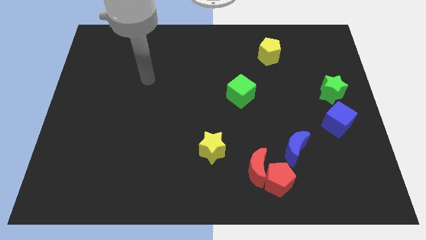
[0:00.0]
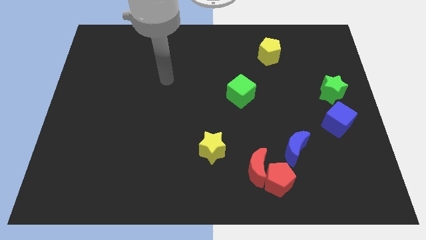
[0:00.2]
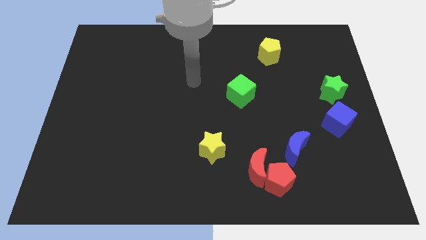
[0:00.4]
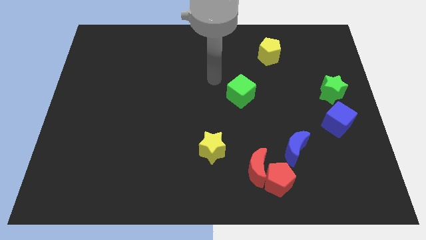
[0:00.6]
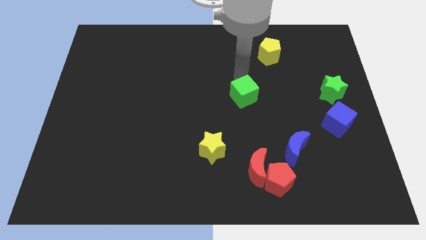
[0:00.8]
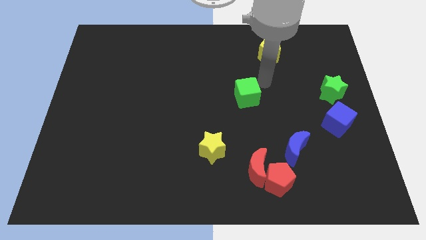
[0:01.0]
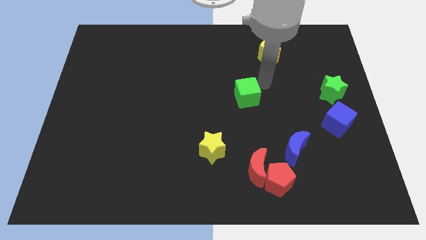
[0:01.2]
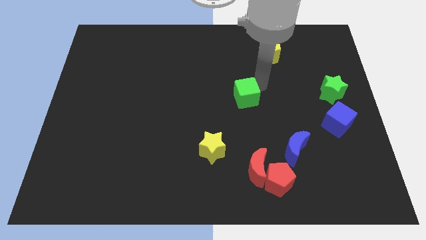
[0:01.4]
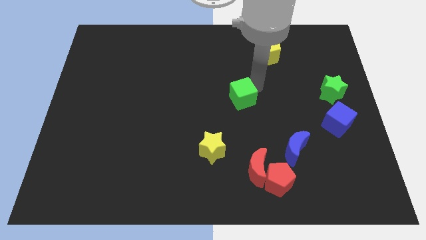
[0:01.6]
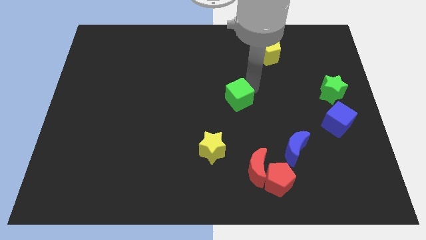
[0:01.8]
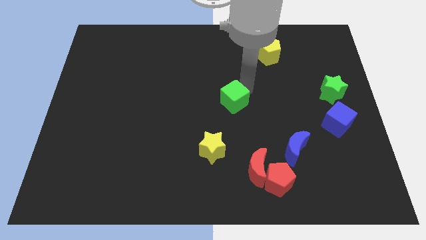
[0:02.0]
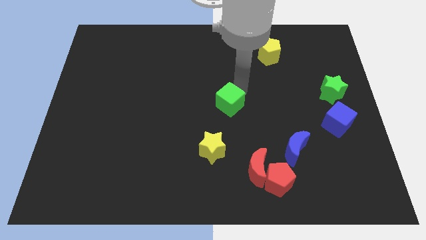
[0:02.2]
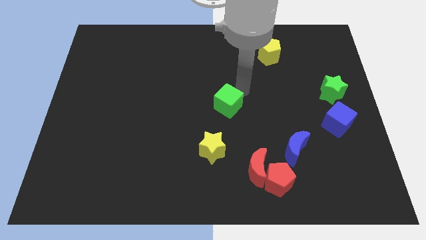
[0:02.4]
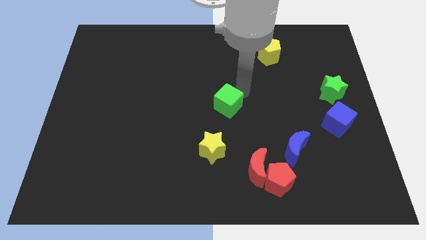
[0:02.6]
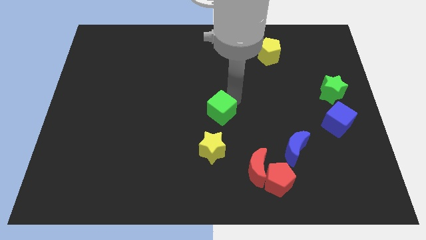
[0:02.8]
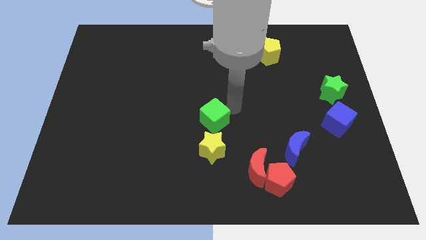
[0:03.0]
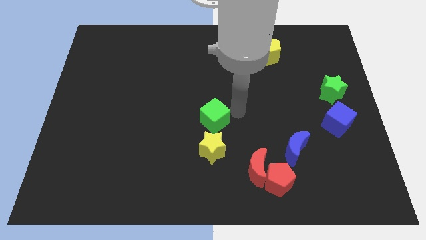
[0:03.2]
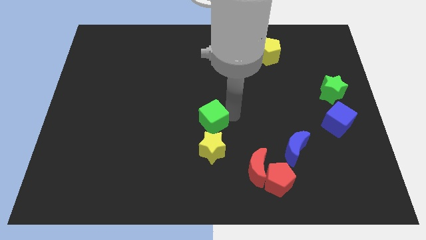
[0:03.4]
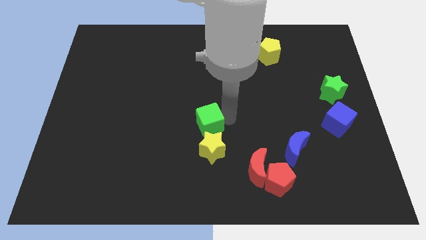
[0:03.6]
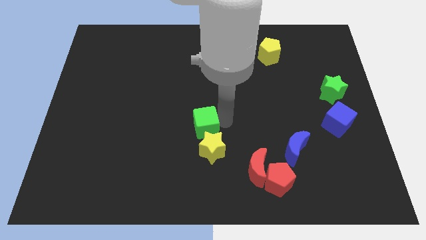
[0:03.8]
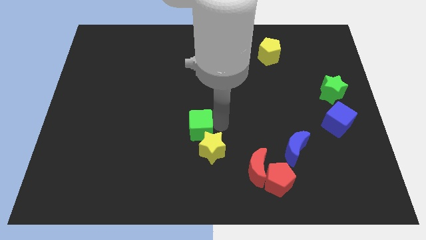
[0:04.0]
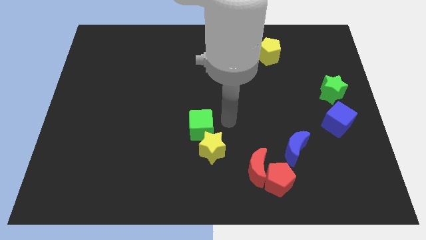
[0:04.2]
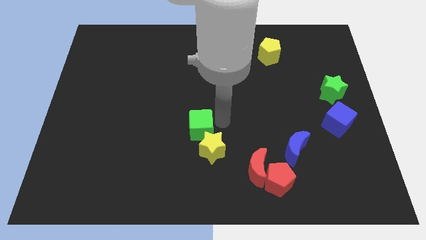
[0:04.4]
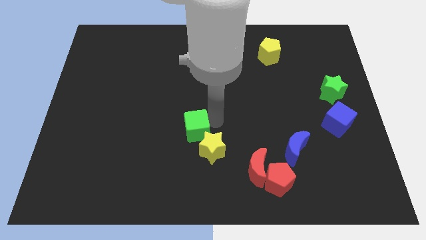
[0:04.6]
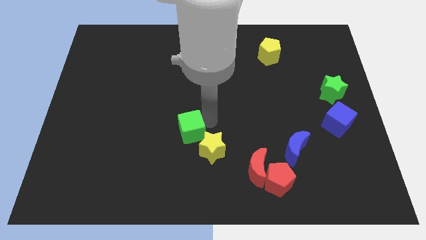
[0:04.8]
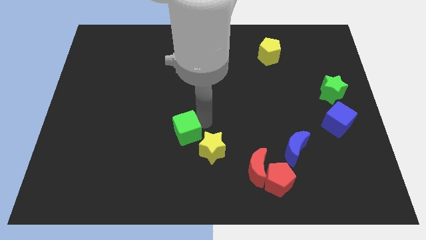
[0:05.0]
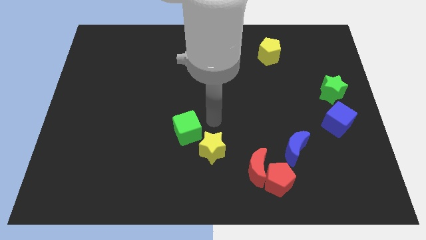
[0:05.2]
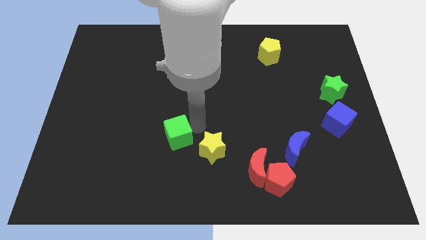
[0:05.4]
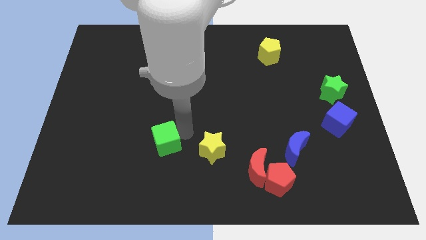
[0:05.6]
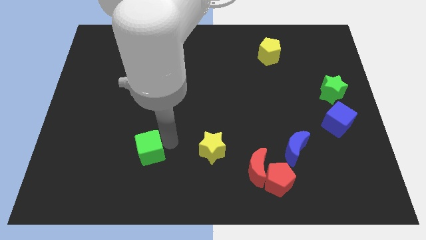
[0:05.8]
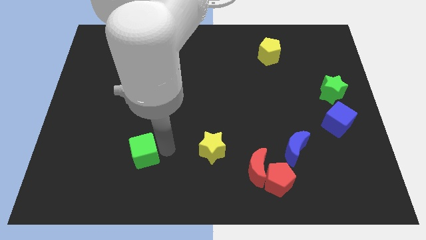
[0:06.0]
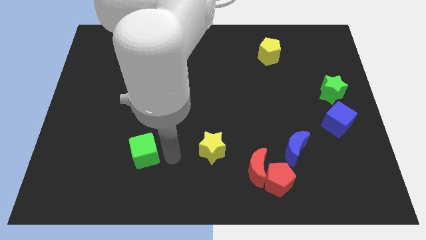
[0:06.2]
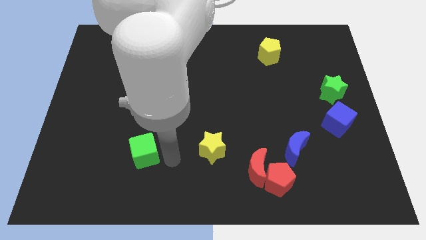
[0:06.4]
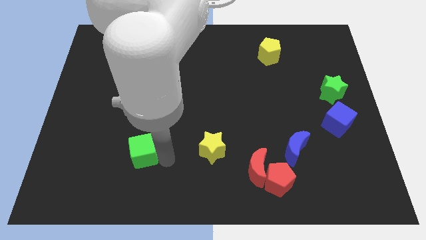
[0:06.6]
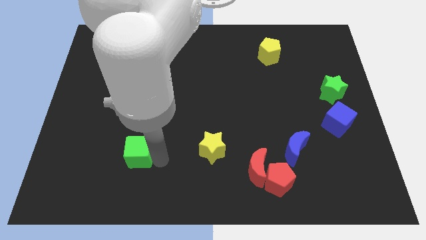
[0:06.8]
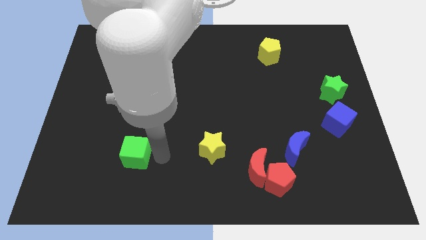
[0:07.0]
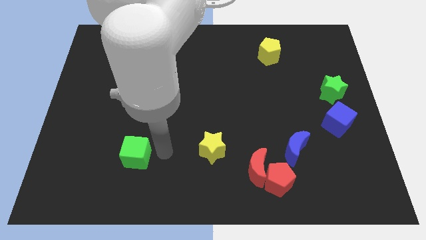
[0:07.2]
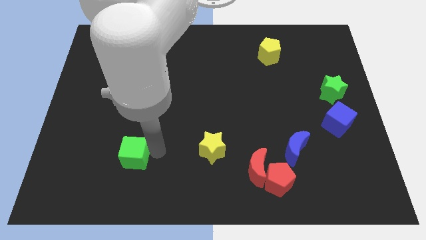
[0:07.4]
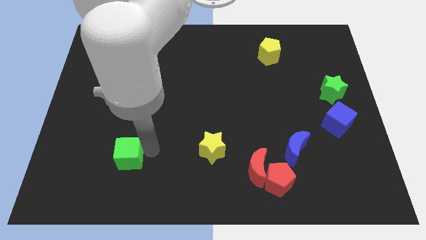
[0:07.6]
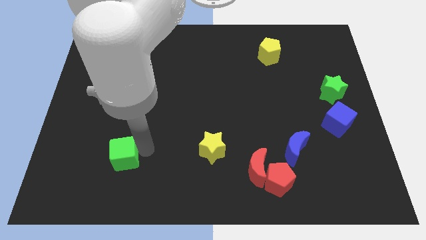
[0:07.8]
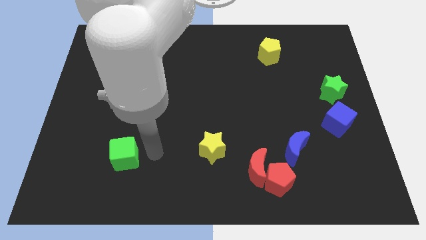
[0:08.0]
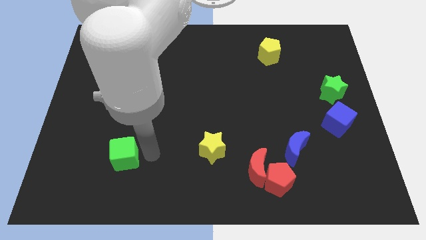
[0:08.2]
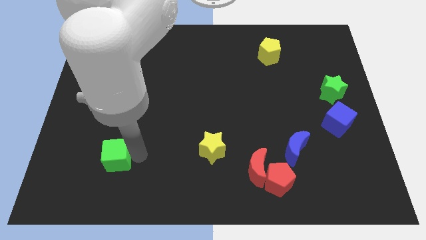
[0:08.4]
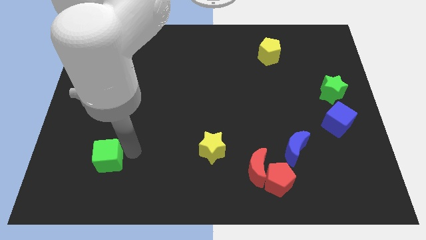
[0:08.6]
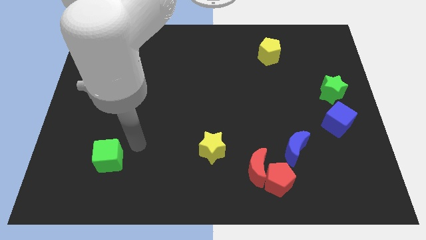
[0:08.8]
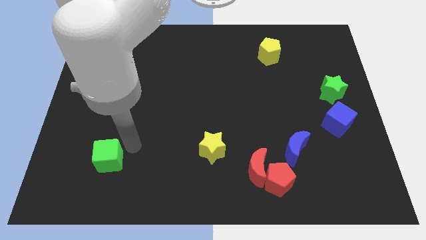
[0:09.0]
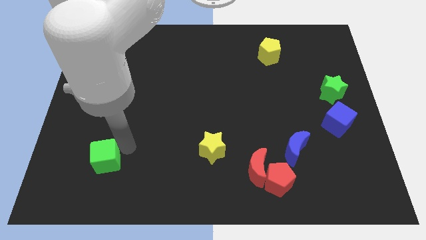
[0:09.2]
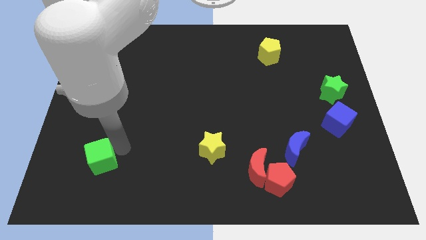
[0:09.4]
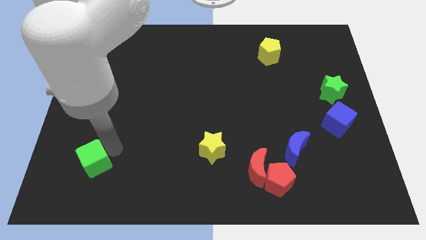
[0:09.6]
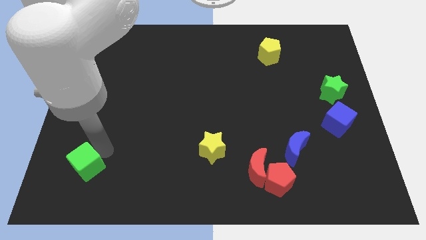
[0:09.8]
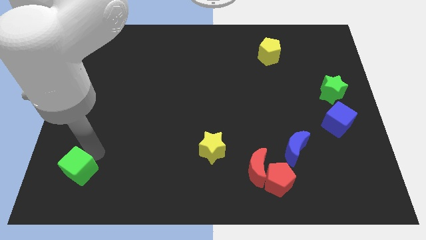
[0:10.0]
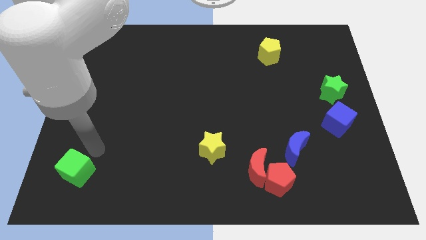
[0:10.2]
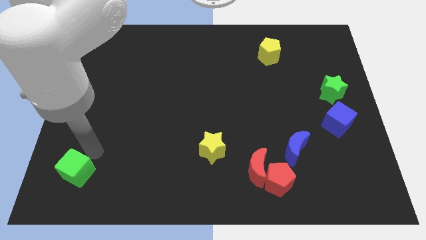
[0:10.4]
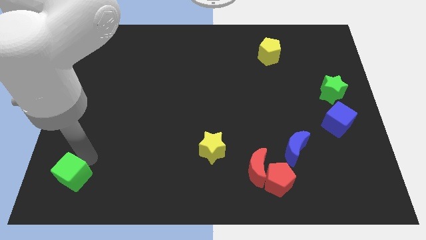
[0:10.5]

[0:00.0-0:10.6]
move the green cube to the bottom left corner

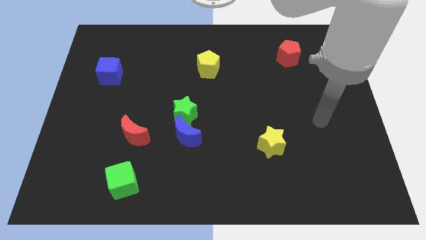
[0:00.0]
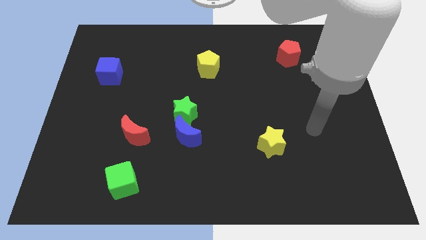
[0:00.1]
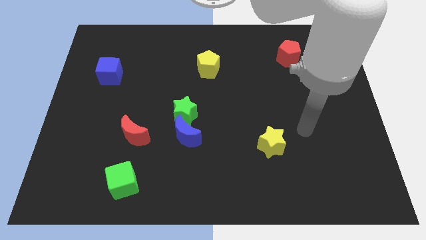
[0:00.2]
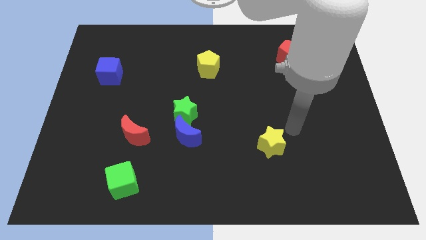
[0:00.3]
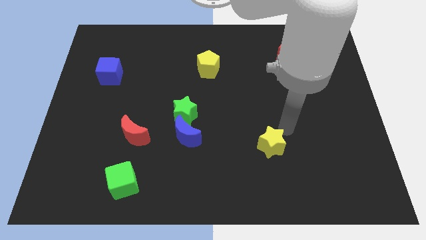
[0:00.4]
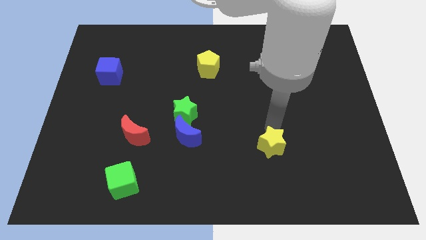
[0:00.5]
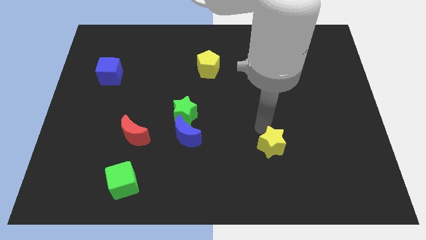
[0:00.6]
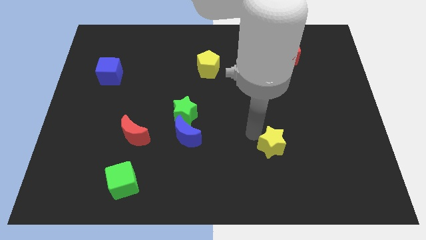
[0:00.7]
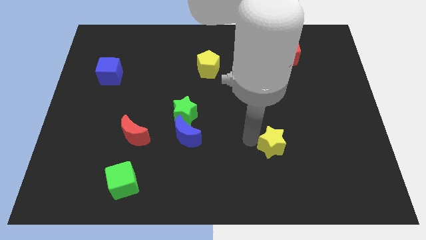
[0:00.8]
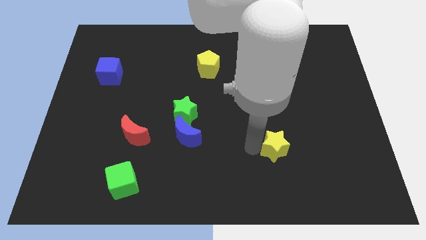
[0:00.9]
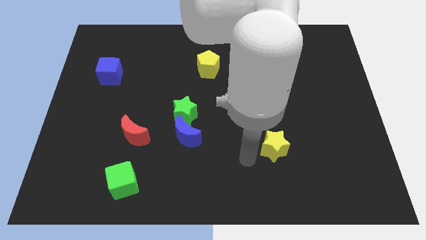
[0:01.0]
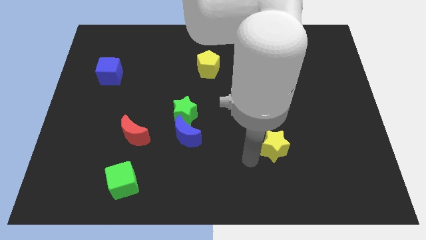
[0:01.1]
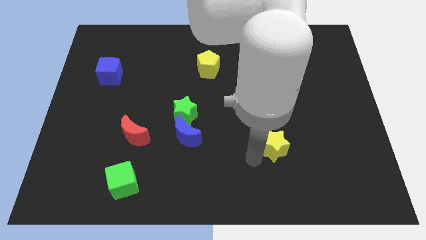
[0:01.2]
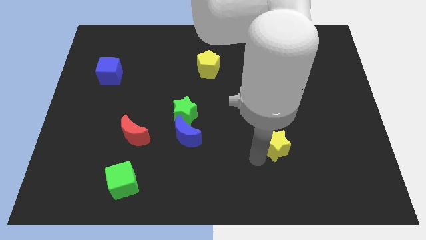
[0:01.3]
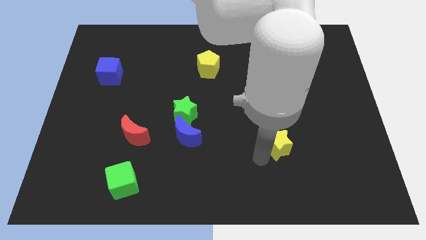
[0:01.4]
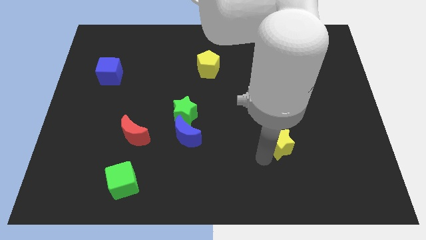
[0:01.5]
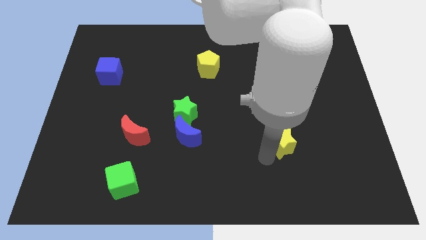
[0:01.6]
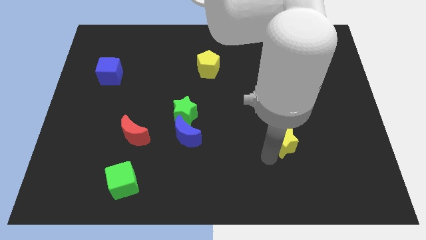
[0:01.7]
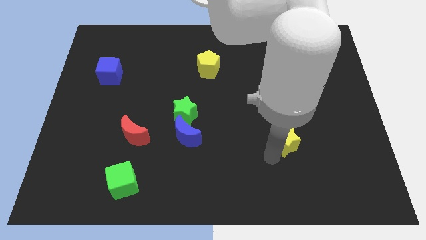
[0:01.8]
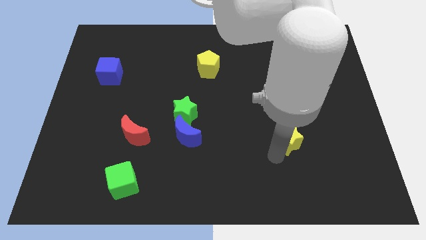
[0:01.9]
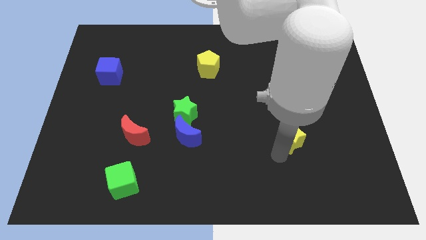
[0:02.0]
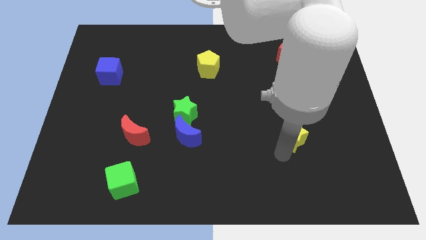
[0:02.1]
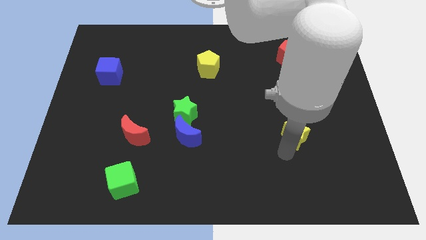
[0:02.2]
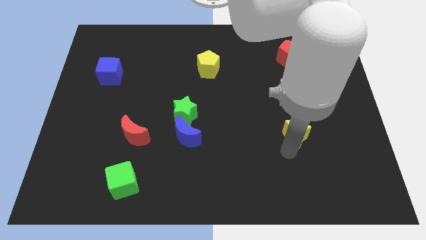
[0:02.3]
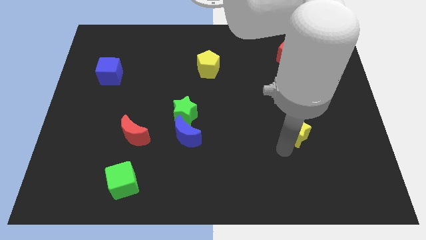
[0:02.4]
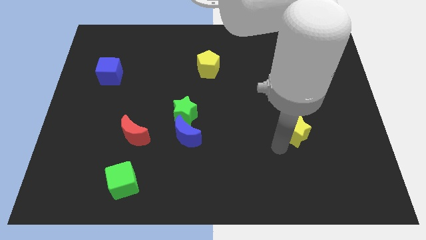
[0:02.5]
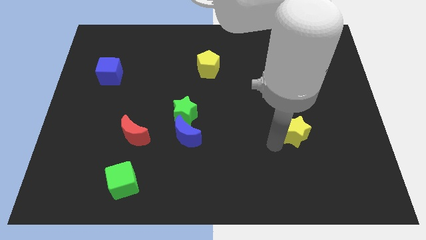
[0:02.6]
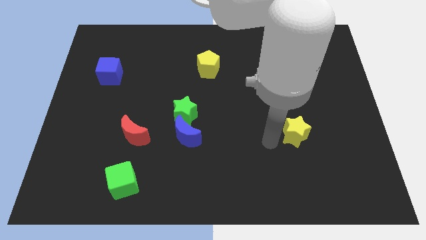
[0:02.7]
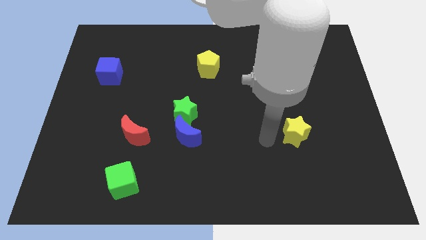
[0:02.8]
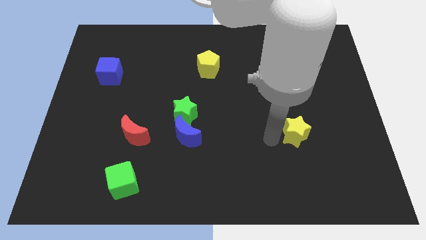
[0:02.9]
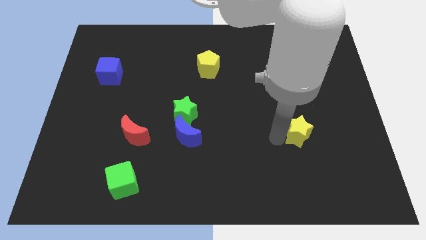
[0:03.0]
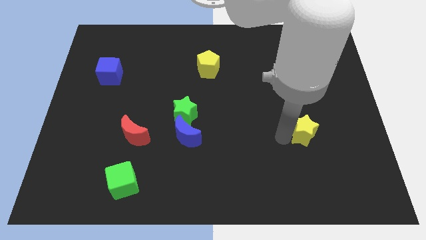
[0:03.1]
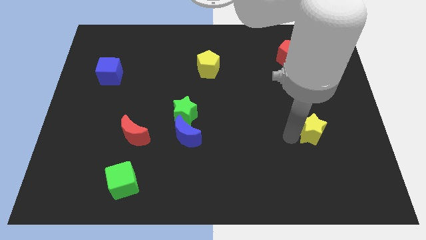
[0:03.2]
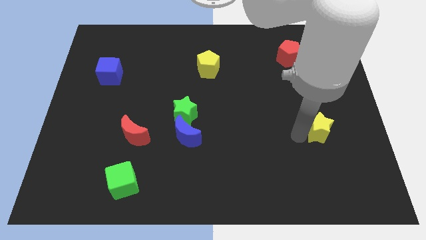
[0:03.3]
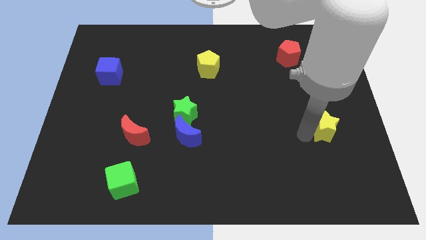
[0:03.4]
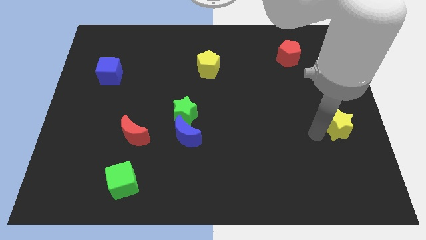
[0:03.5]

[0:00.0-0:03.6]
push the yellow star to the right side
